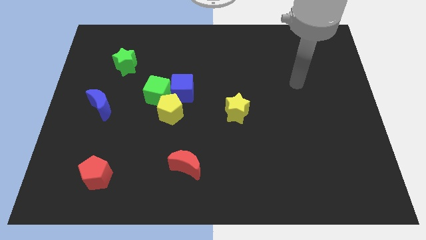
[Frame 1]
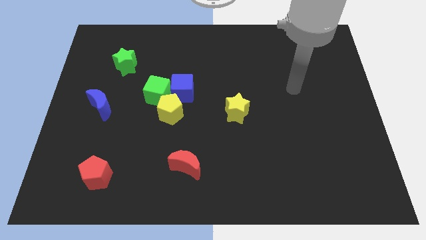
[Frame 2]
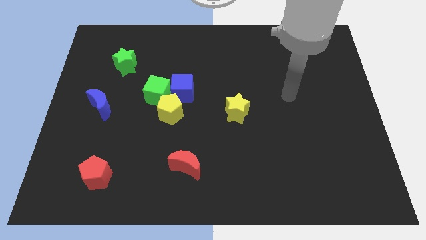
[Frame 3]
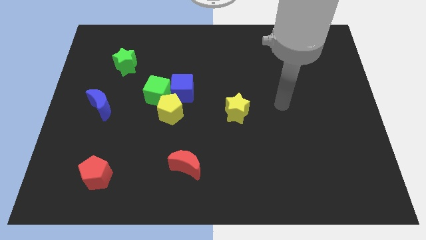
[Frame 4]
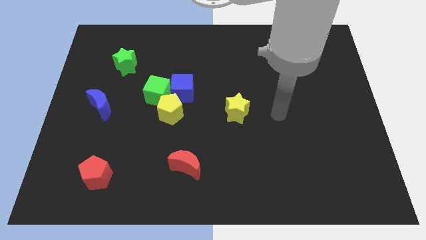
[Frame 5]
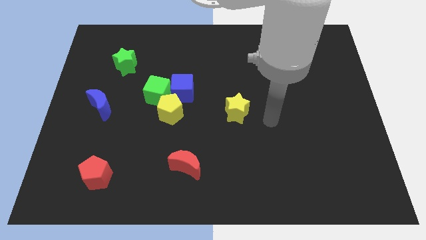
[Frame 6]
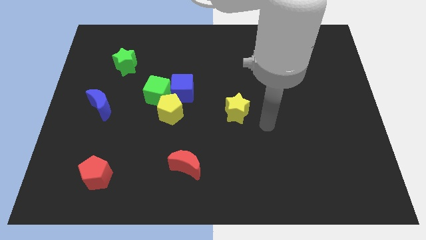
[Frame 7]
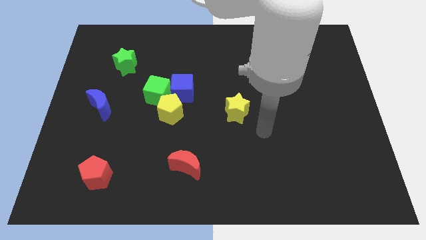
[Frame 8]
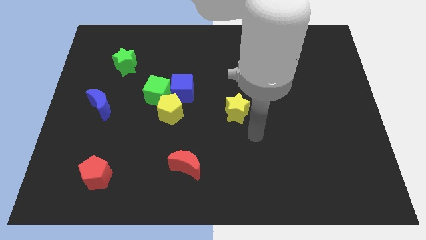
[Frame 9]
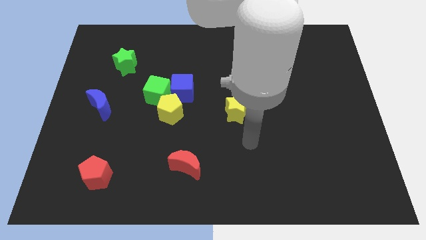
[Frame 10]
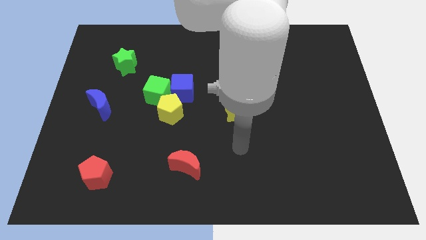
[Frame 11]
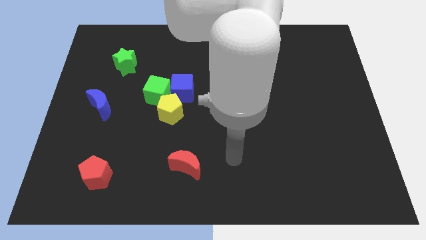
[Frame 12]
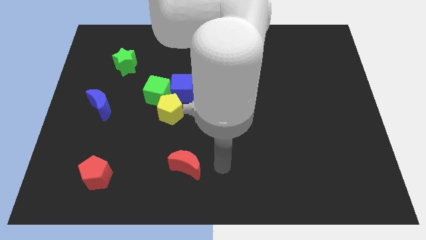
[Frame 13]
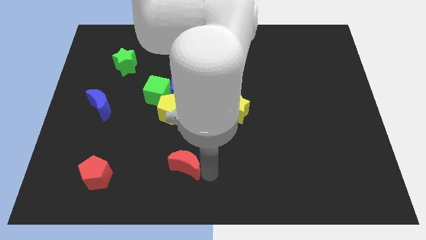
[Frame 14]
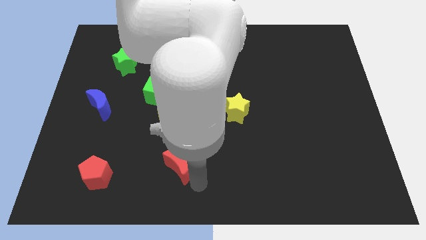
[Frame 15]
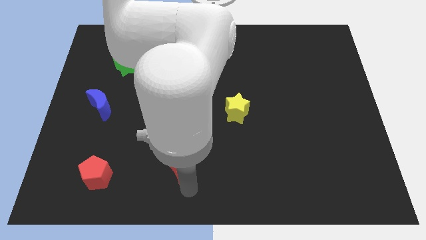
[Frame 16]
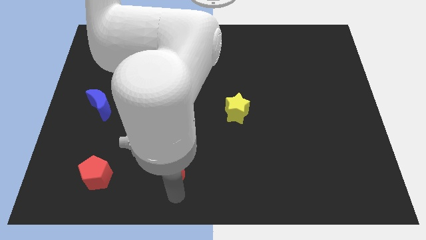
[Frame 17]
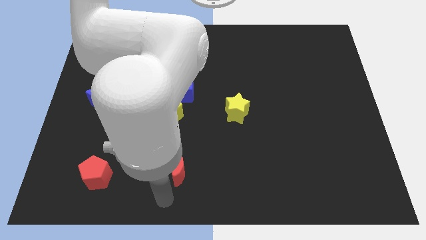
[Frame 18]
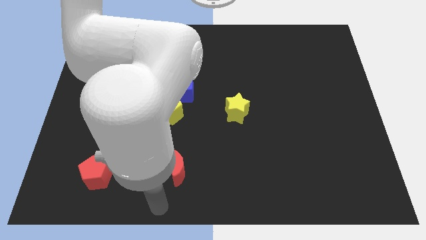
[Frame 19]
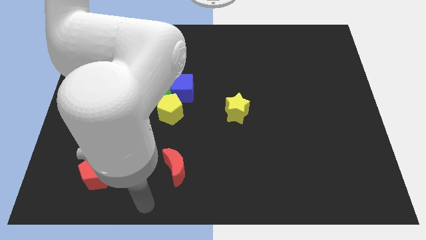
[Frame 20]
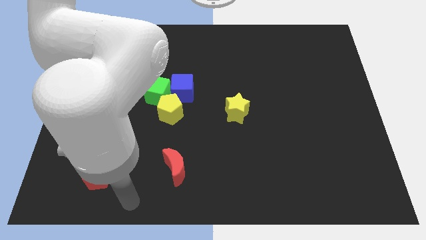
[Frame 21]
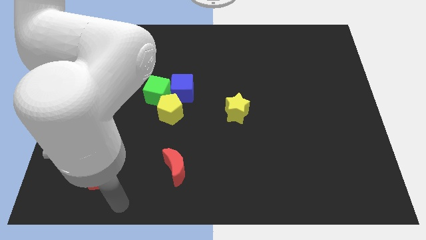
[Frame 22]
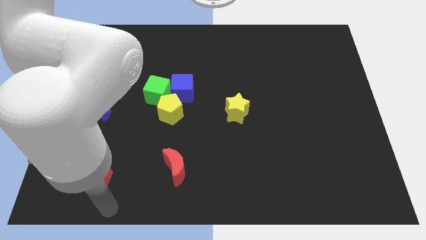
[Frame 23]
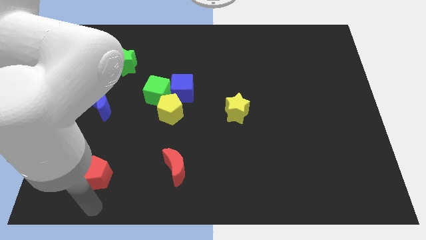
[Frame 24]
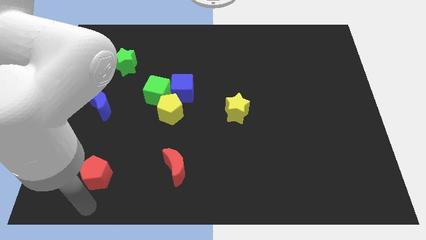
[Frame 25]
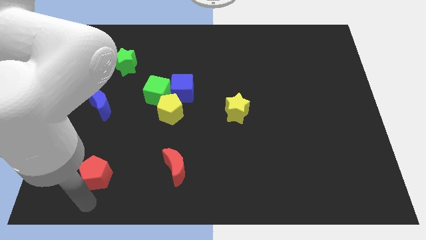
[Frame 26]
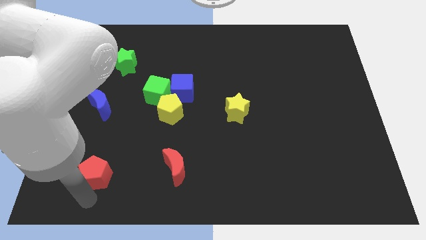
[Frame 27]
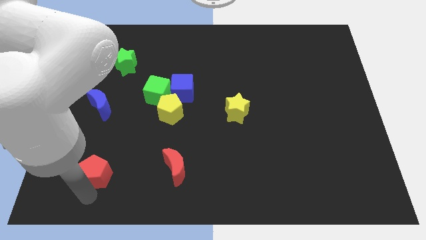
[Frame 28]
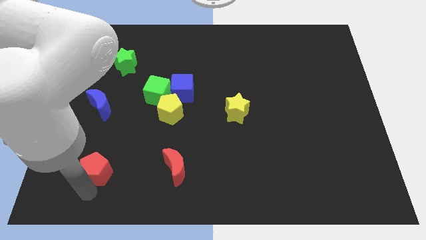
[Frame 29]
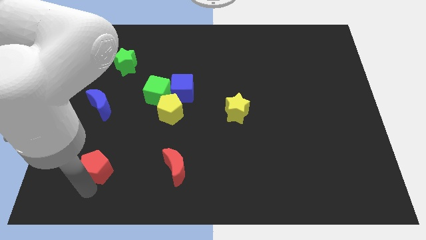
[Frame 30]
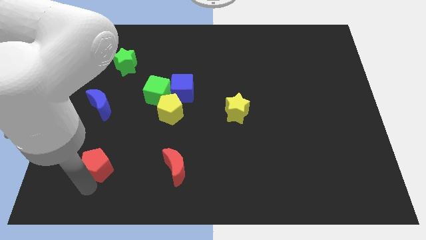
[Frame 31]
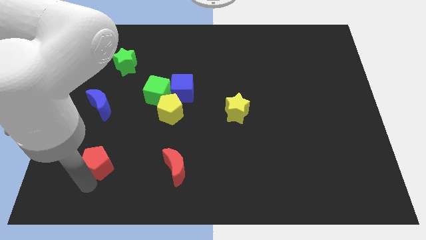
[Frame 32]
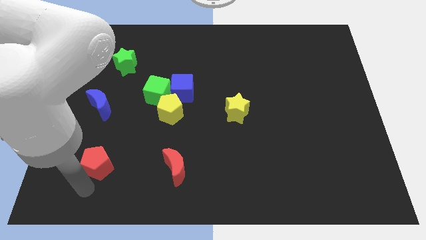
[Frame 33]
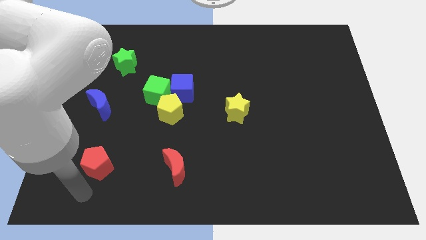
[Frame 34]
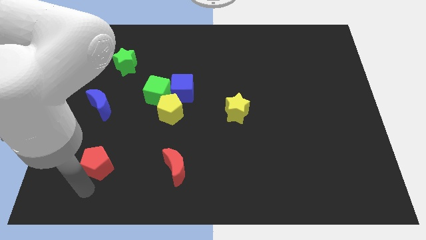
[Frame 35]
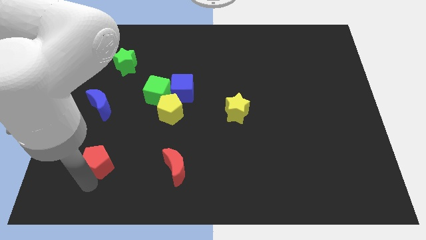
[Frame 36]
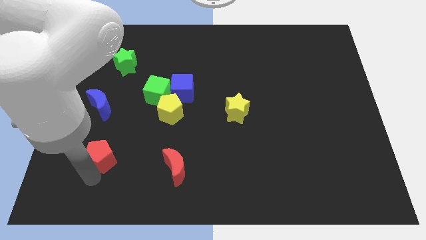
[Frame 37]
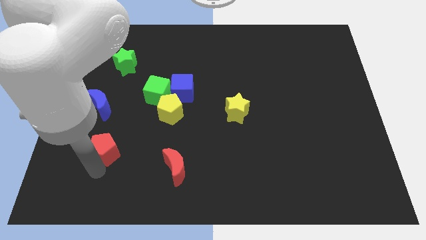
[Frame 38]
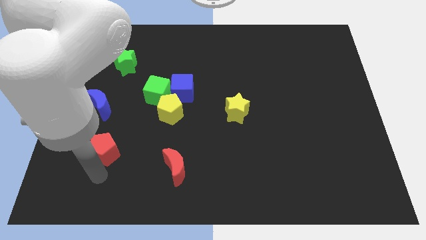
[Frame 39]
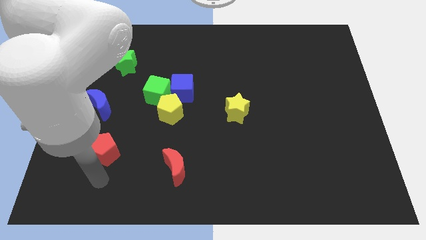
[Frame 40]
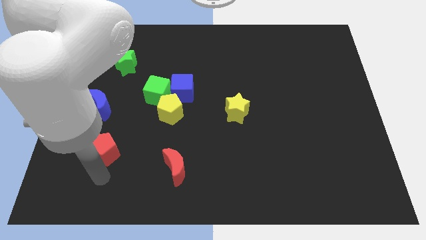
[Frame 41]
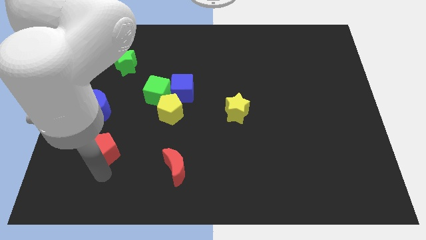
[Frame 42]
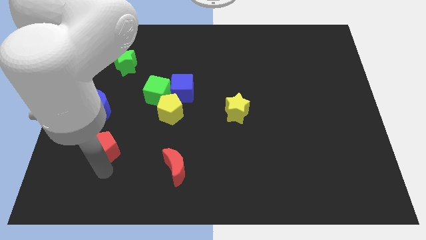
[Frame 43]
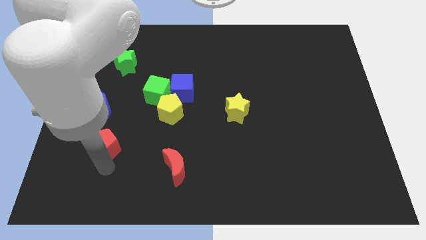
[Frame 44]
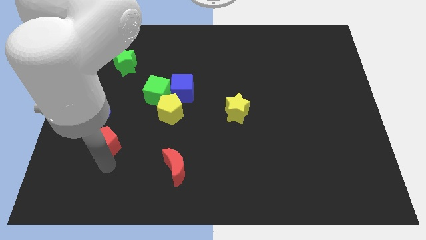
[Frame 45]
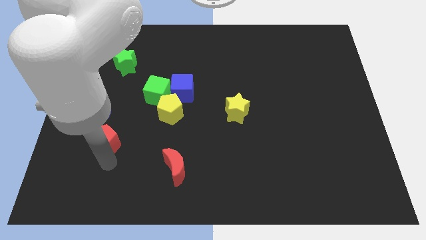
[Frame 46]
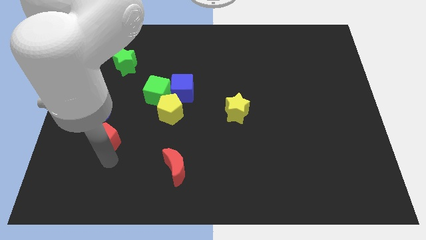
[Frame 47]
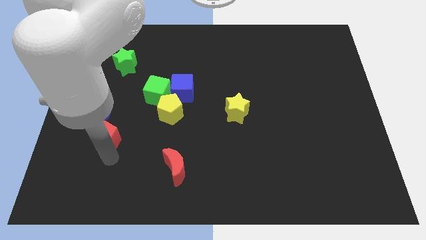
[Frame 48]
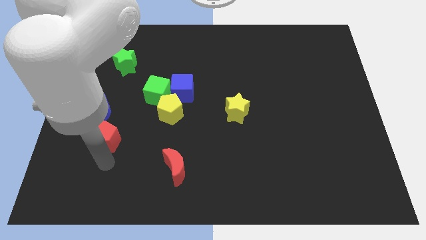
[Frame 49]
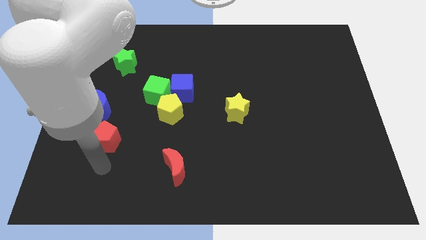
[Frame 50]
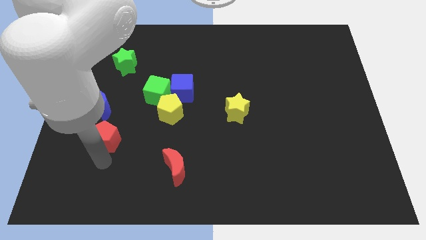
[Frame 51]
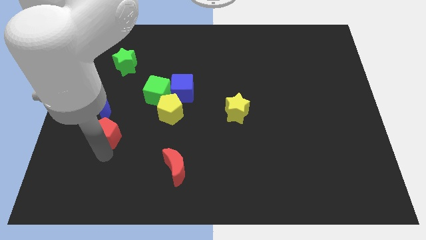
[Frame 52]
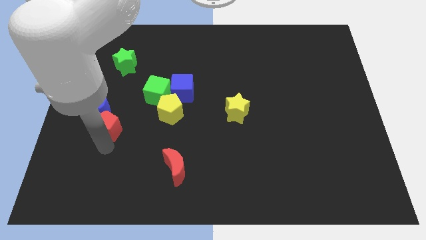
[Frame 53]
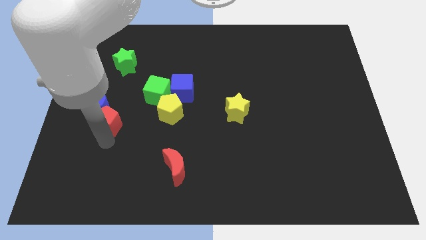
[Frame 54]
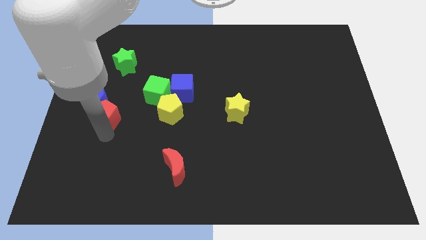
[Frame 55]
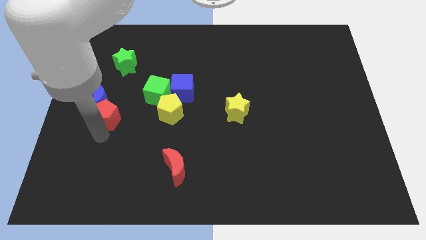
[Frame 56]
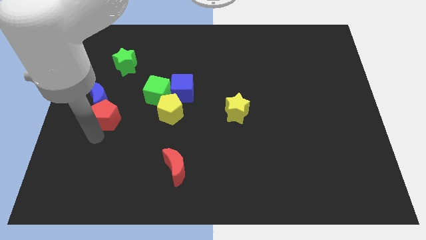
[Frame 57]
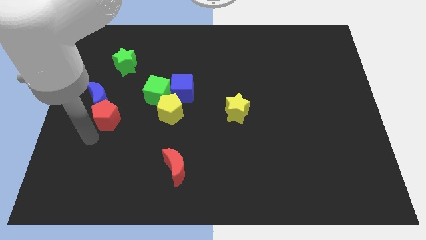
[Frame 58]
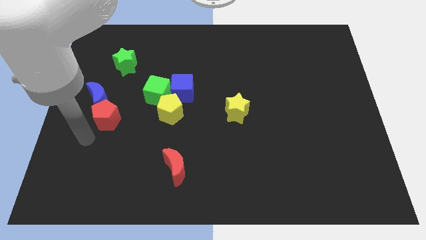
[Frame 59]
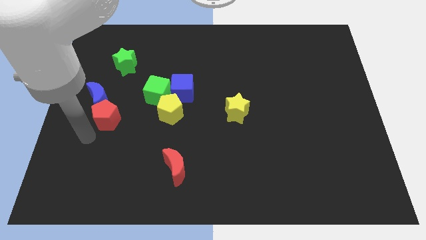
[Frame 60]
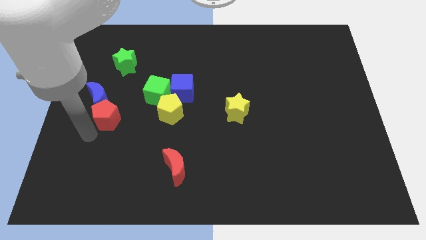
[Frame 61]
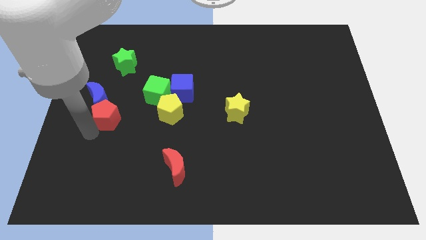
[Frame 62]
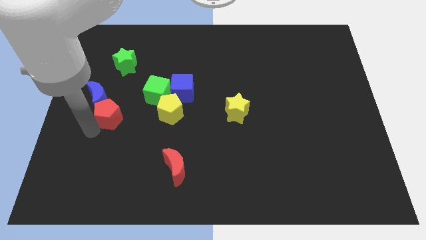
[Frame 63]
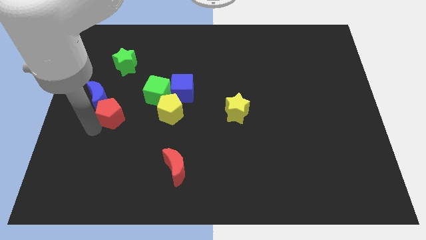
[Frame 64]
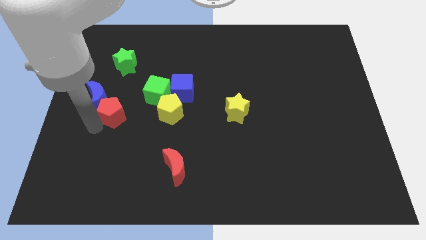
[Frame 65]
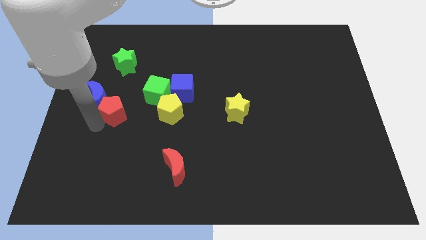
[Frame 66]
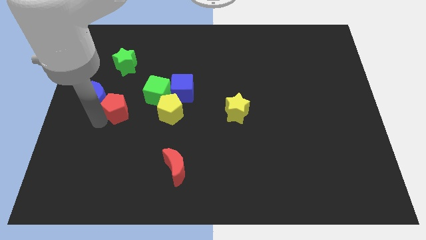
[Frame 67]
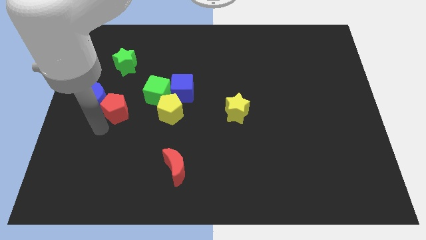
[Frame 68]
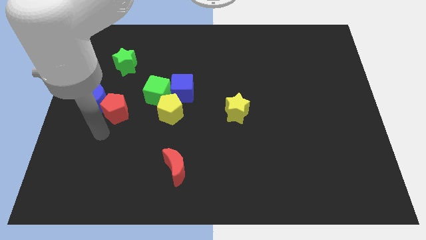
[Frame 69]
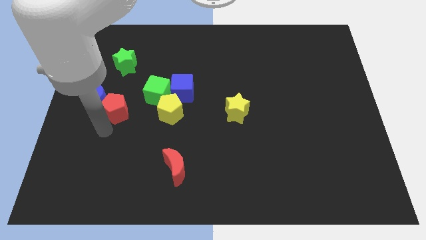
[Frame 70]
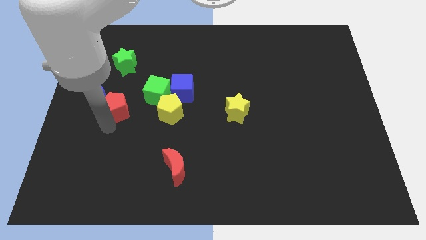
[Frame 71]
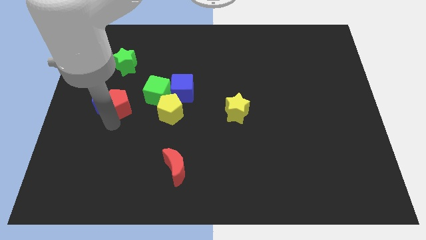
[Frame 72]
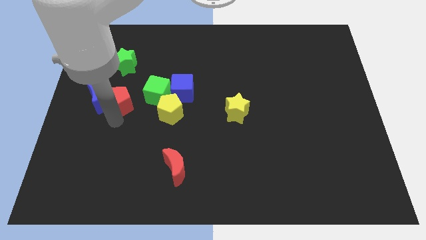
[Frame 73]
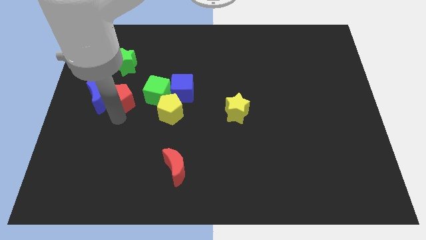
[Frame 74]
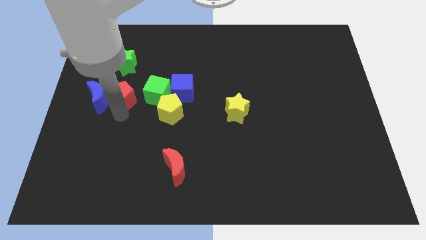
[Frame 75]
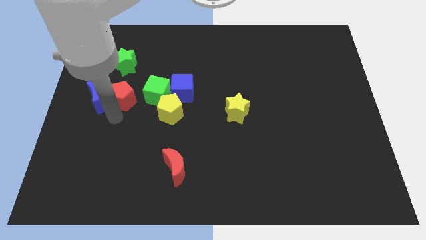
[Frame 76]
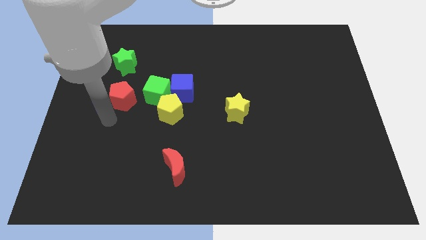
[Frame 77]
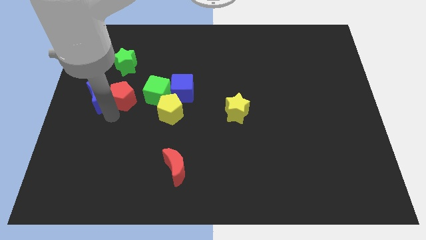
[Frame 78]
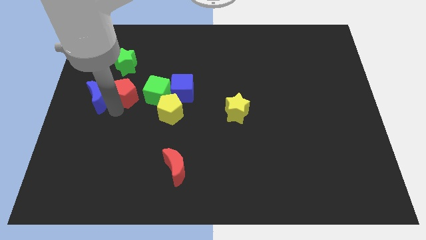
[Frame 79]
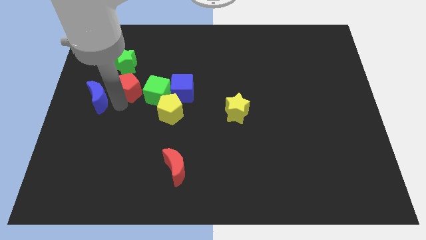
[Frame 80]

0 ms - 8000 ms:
move the red pentagon to the top left side of the green cube
